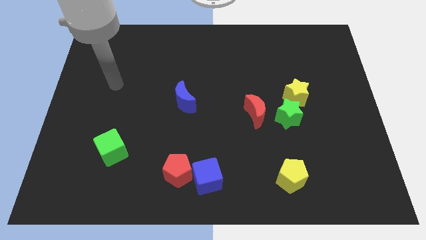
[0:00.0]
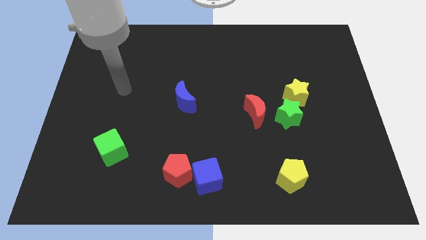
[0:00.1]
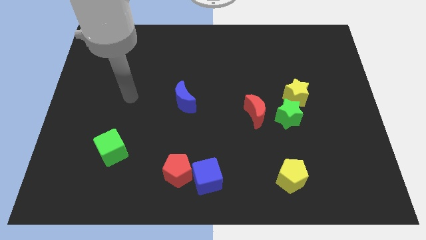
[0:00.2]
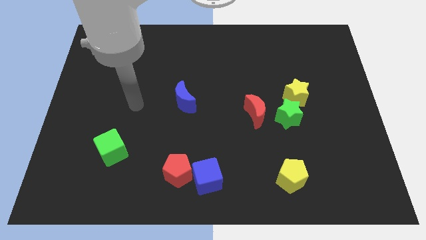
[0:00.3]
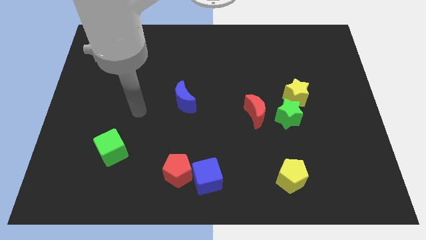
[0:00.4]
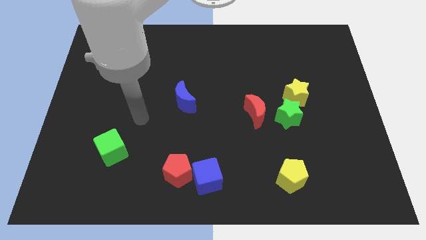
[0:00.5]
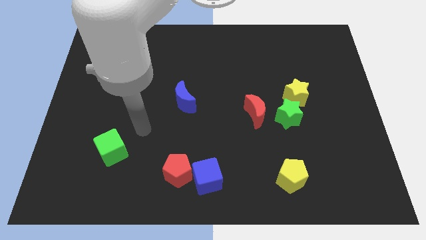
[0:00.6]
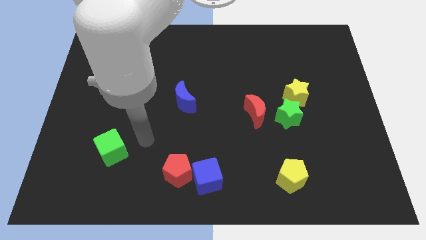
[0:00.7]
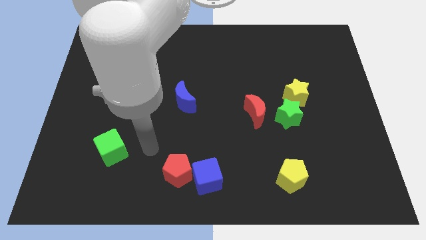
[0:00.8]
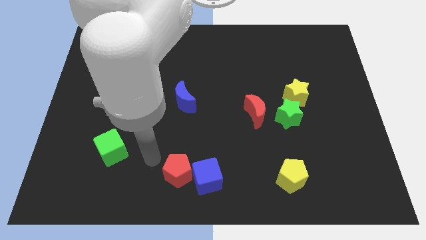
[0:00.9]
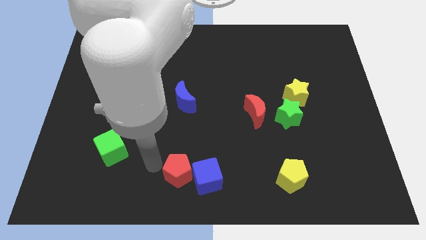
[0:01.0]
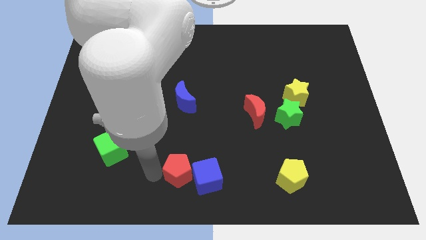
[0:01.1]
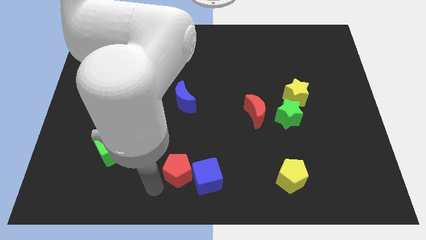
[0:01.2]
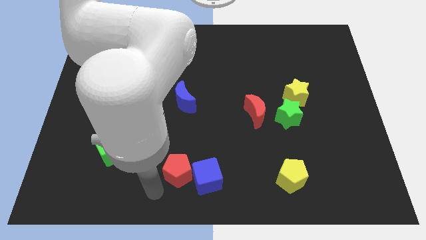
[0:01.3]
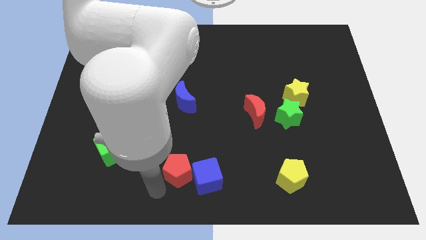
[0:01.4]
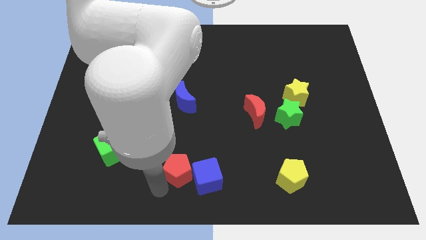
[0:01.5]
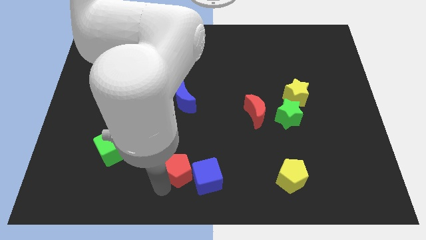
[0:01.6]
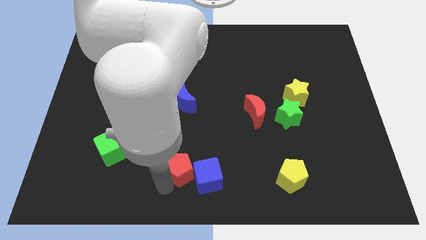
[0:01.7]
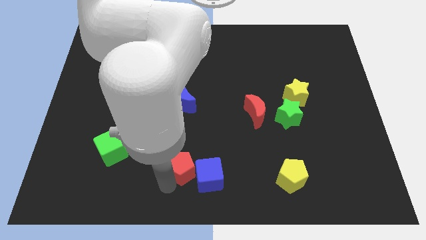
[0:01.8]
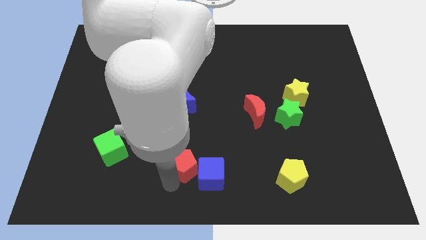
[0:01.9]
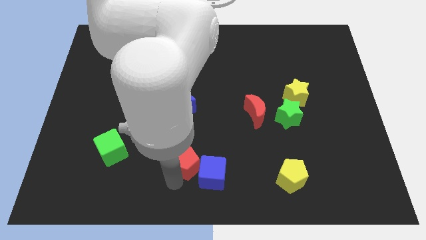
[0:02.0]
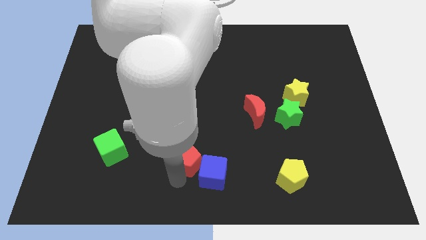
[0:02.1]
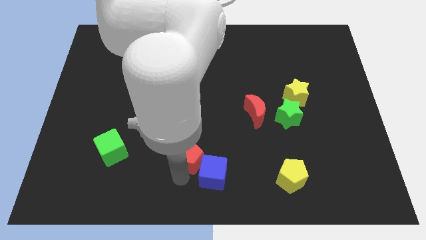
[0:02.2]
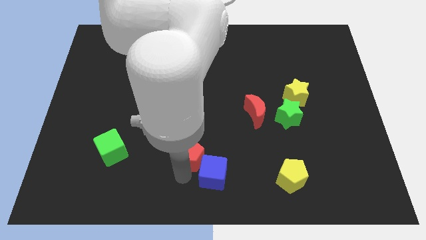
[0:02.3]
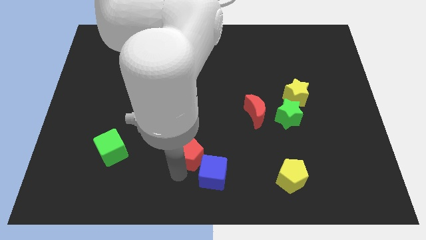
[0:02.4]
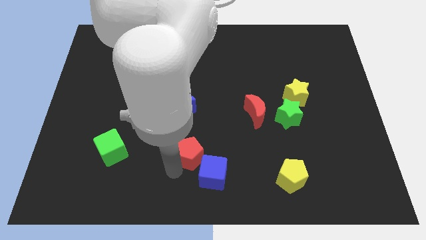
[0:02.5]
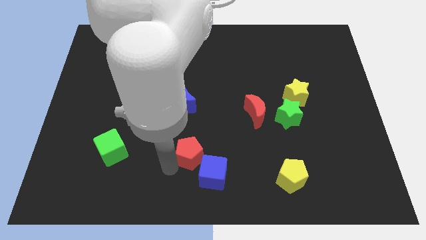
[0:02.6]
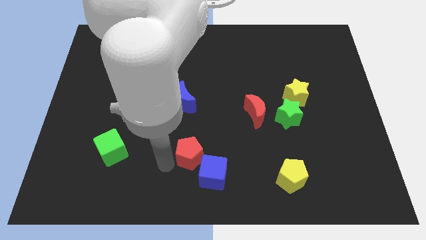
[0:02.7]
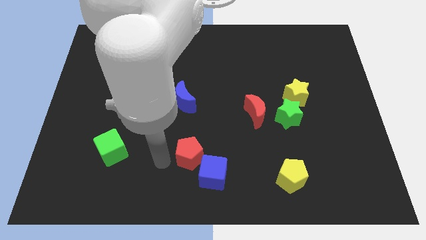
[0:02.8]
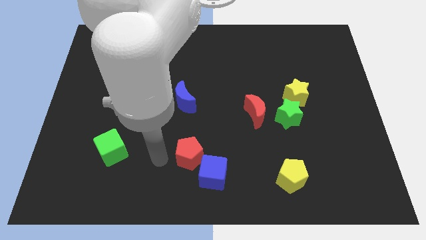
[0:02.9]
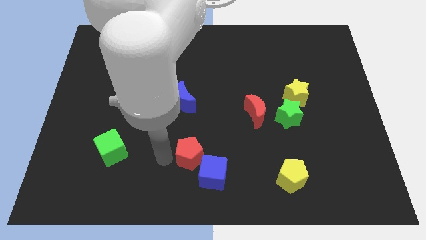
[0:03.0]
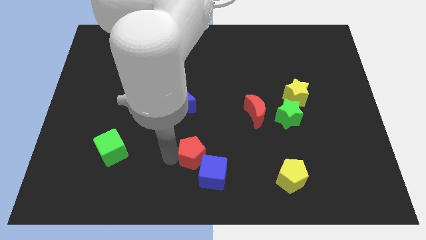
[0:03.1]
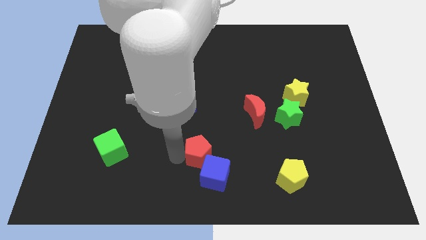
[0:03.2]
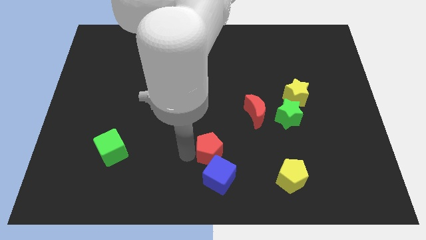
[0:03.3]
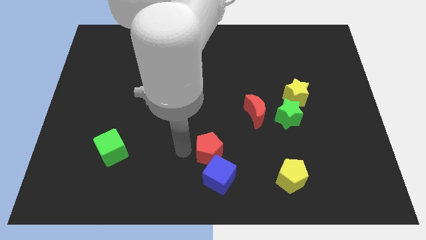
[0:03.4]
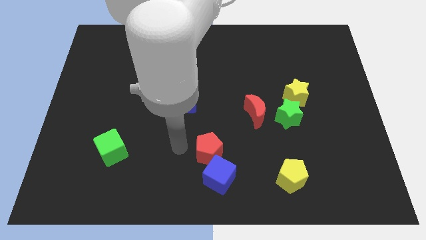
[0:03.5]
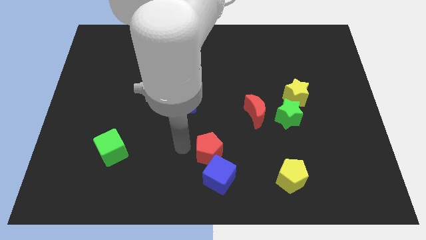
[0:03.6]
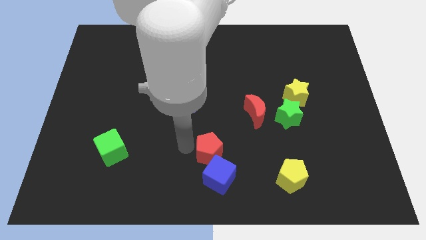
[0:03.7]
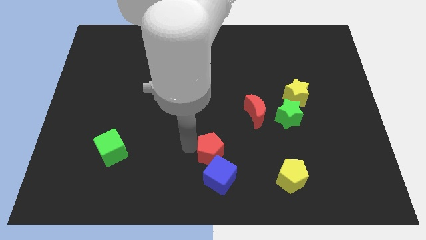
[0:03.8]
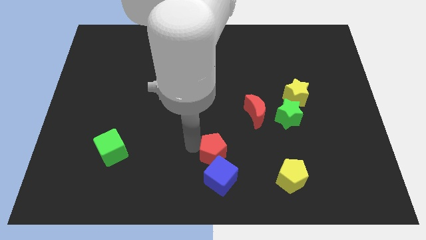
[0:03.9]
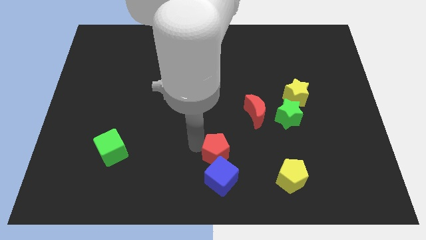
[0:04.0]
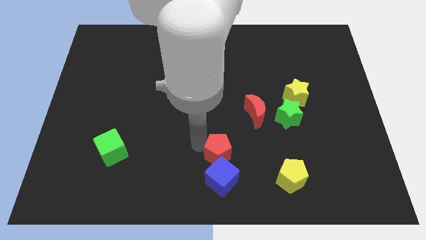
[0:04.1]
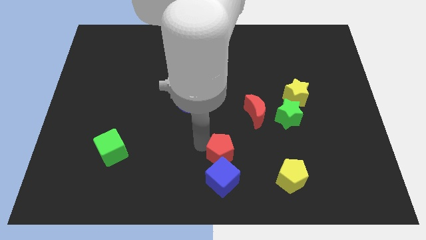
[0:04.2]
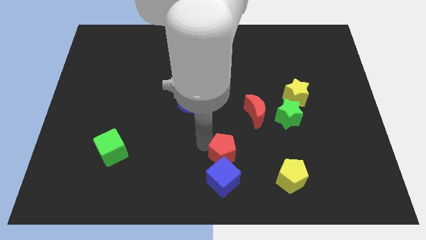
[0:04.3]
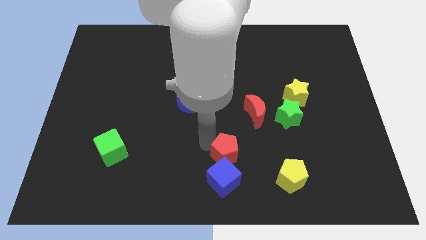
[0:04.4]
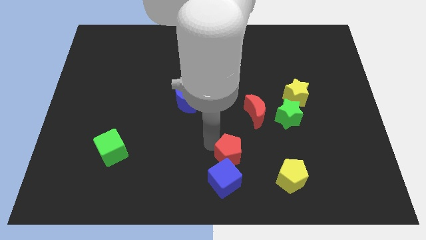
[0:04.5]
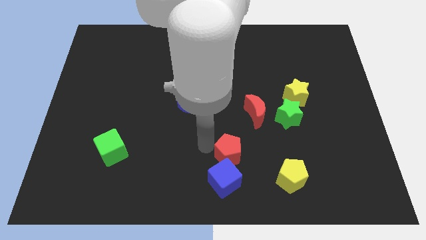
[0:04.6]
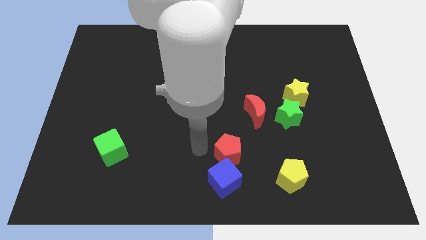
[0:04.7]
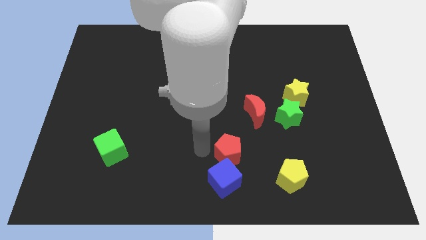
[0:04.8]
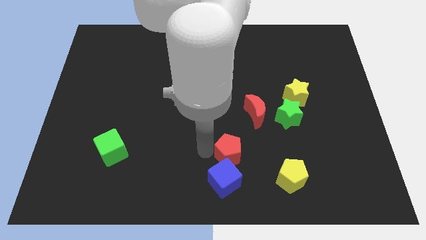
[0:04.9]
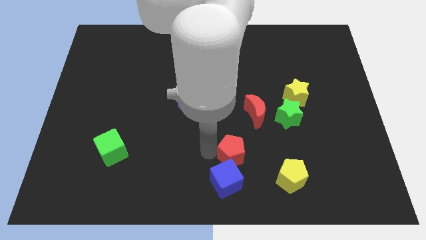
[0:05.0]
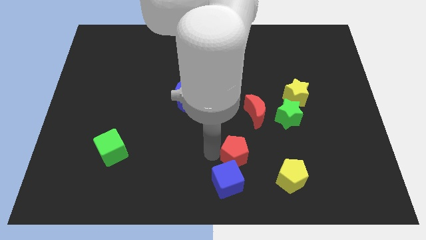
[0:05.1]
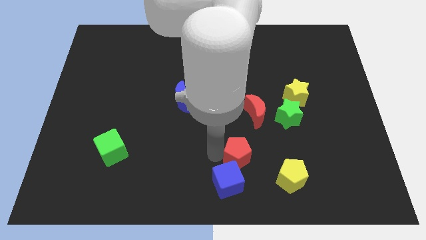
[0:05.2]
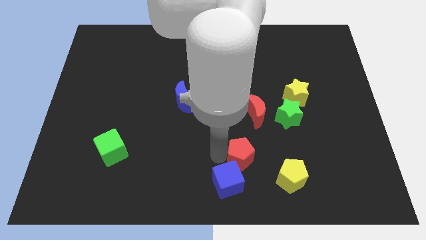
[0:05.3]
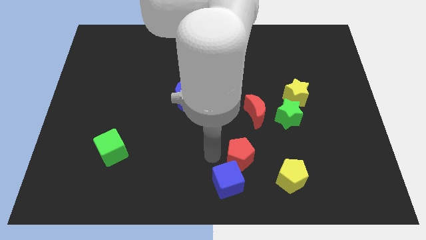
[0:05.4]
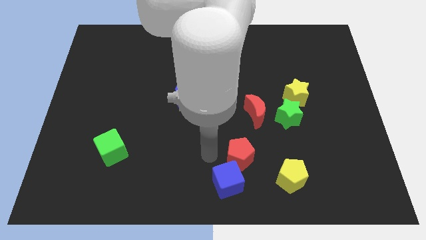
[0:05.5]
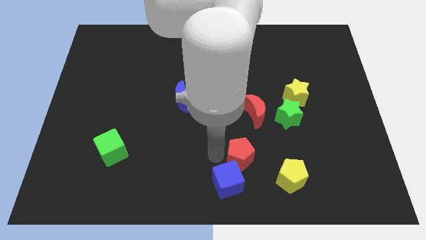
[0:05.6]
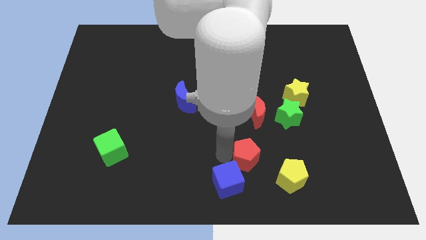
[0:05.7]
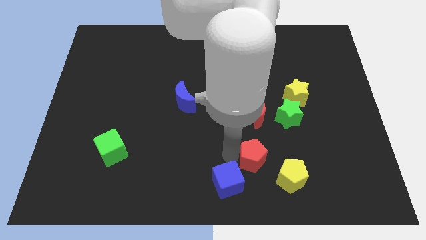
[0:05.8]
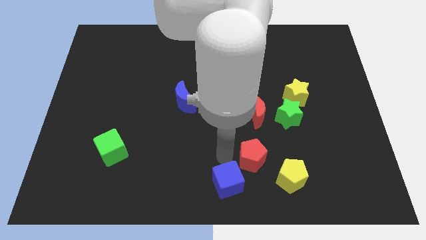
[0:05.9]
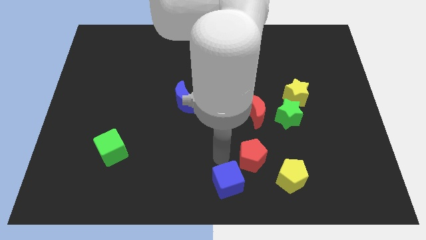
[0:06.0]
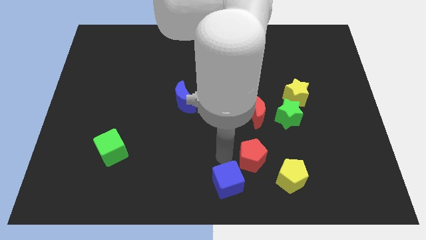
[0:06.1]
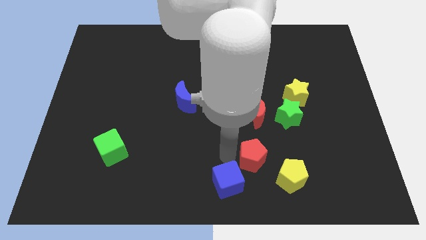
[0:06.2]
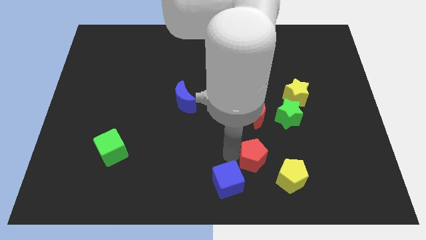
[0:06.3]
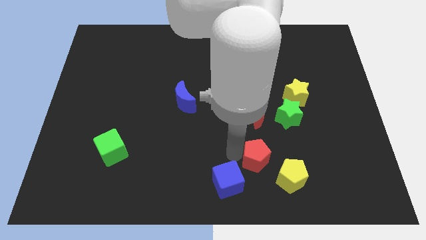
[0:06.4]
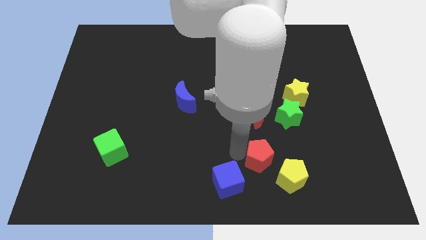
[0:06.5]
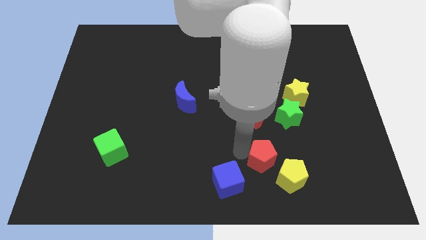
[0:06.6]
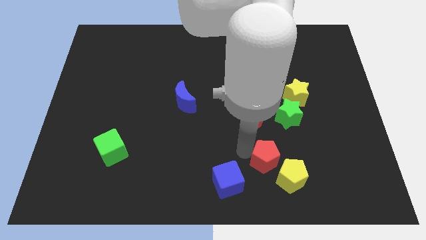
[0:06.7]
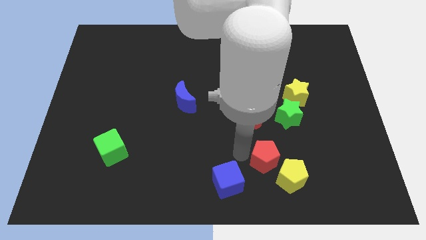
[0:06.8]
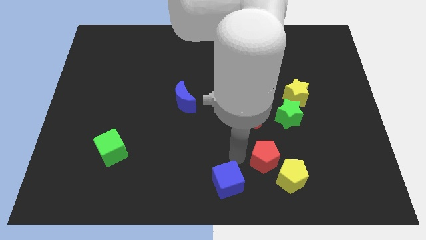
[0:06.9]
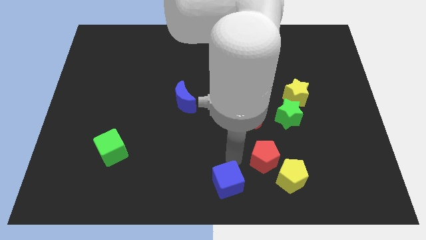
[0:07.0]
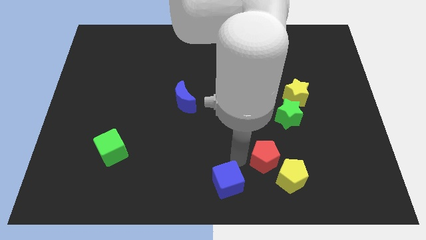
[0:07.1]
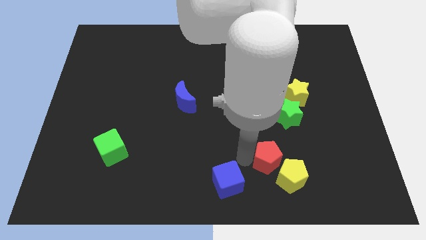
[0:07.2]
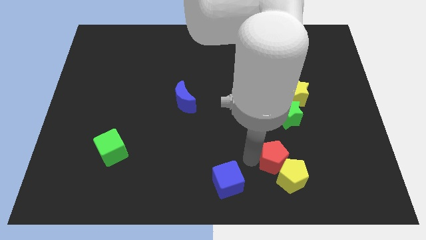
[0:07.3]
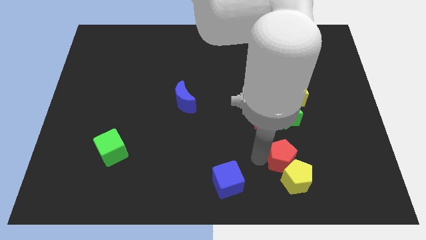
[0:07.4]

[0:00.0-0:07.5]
slide the red pentagon right

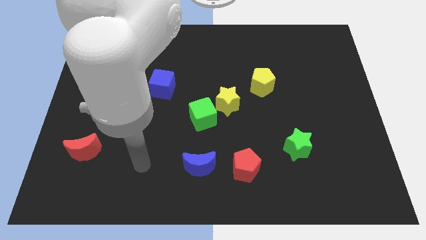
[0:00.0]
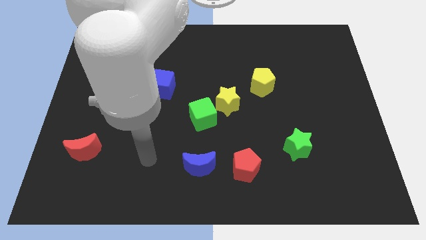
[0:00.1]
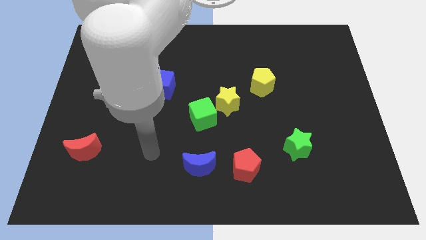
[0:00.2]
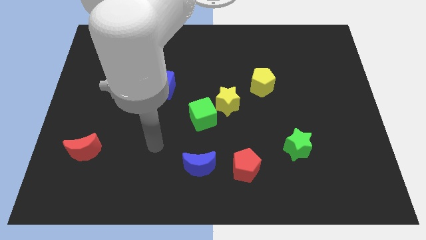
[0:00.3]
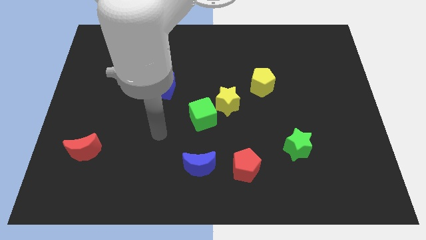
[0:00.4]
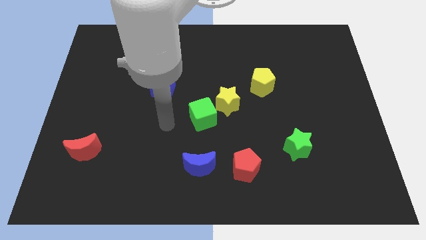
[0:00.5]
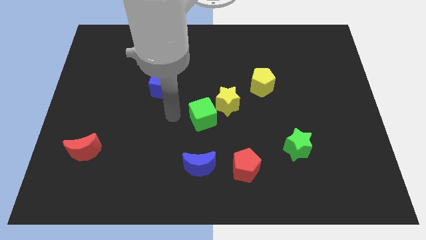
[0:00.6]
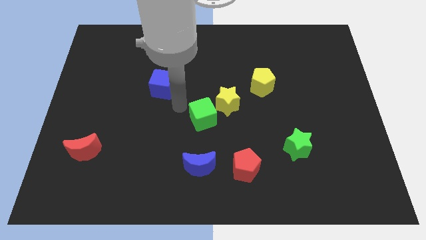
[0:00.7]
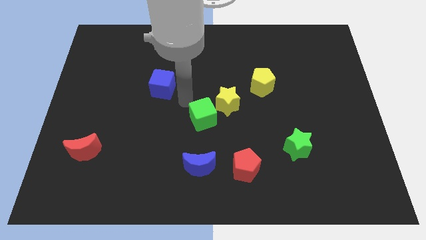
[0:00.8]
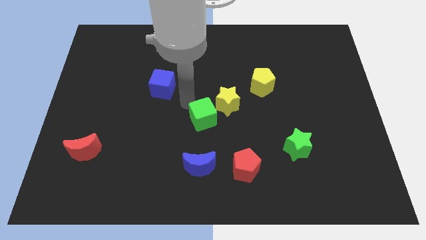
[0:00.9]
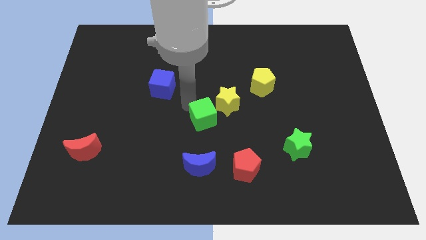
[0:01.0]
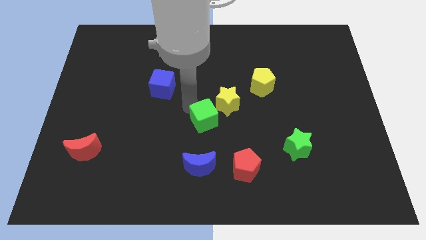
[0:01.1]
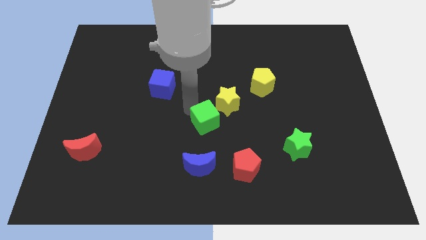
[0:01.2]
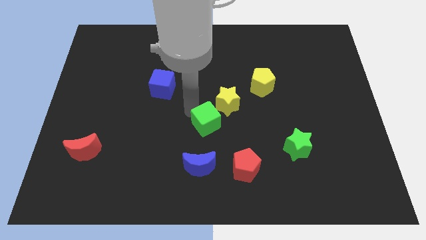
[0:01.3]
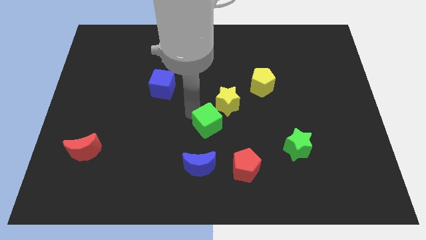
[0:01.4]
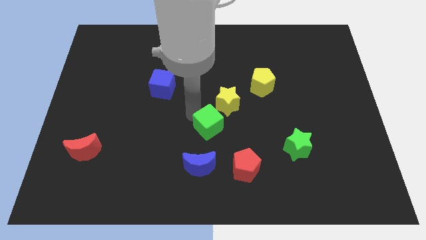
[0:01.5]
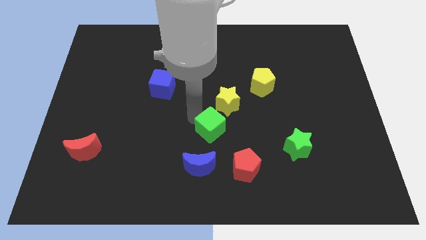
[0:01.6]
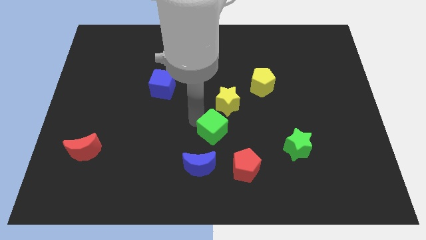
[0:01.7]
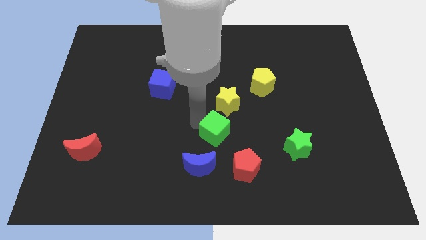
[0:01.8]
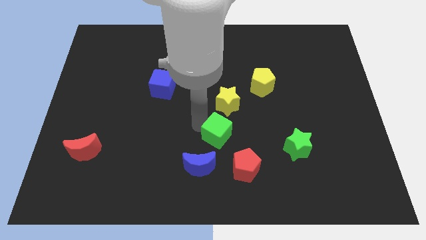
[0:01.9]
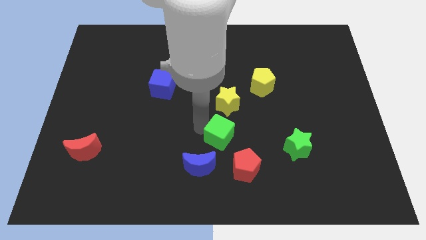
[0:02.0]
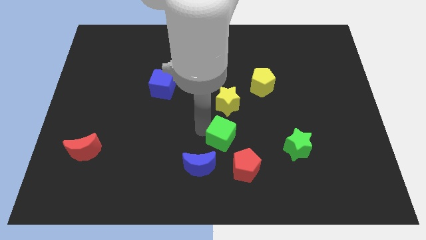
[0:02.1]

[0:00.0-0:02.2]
slightly push the green cube down and then to the right
